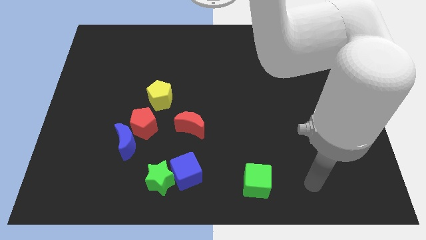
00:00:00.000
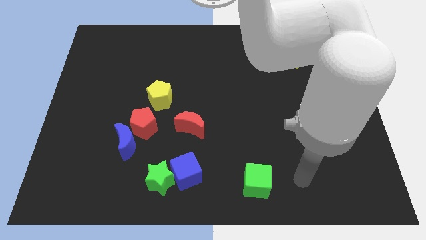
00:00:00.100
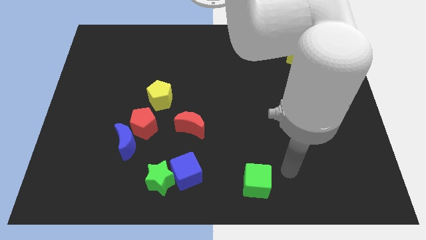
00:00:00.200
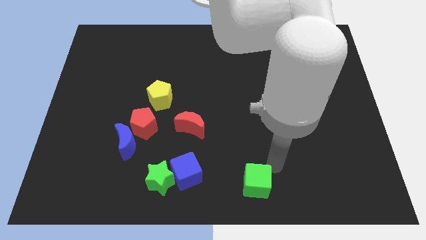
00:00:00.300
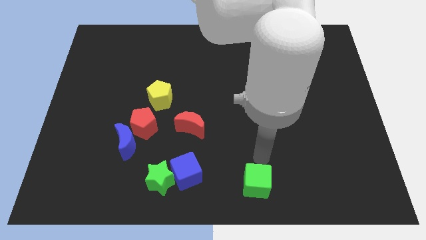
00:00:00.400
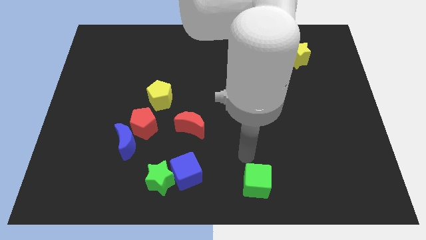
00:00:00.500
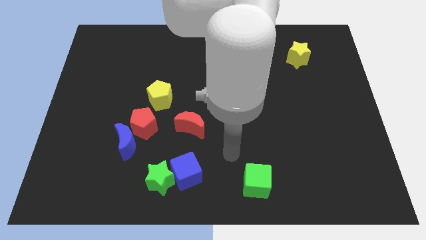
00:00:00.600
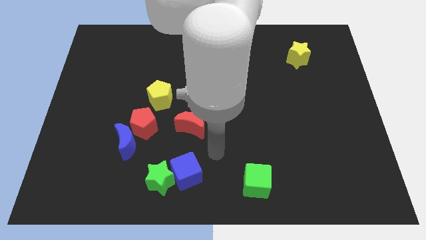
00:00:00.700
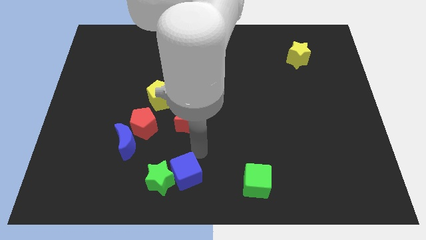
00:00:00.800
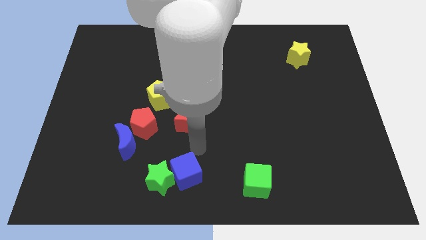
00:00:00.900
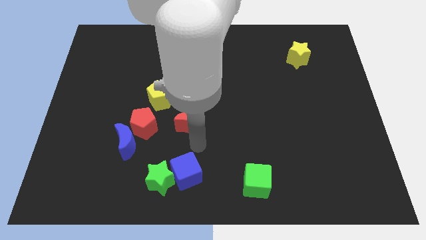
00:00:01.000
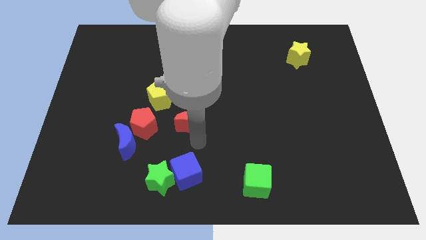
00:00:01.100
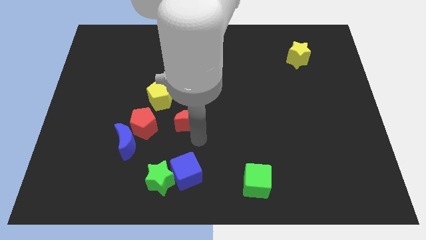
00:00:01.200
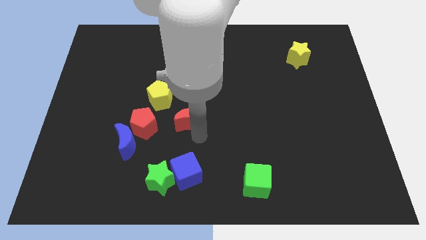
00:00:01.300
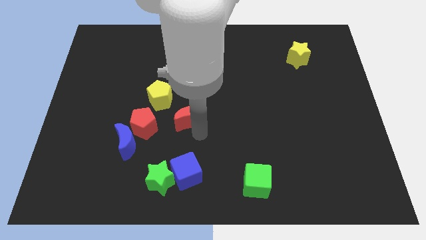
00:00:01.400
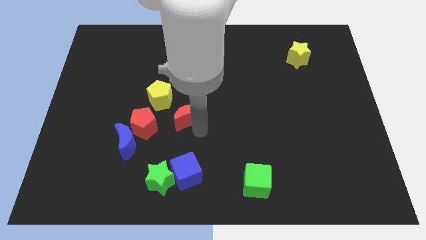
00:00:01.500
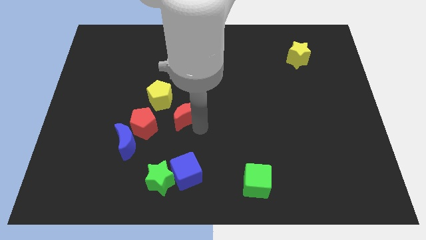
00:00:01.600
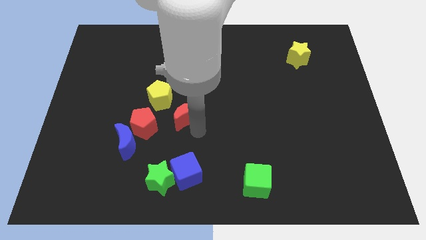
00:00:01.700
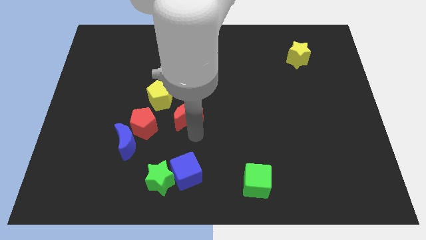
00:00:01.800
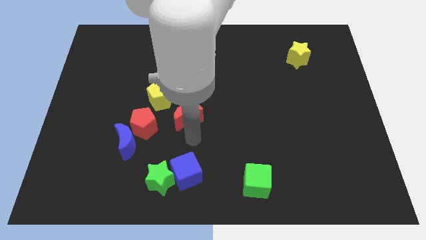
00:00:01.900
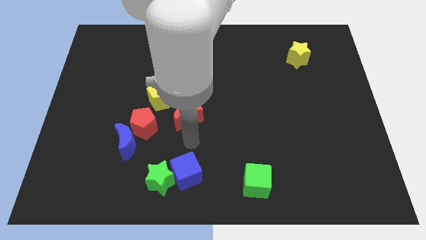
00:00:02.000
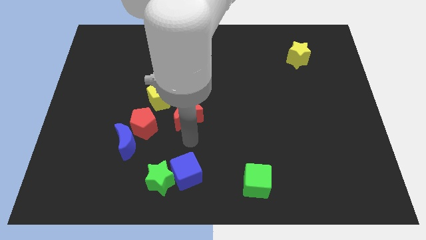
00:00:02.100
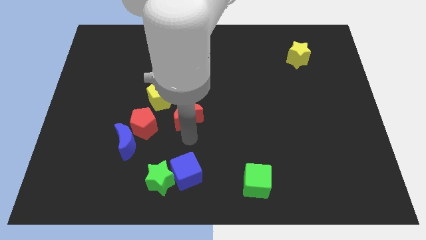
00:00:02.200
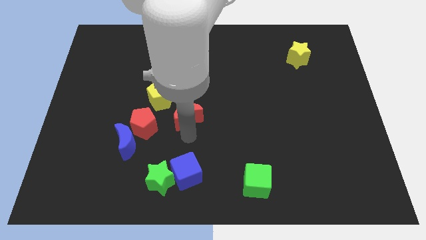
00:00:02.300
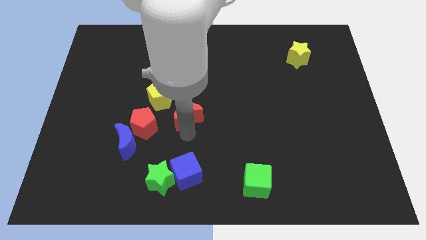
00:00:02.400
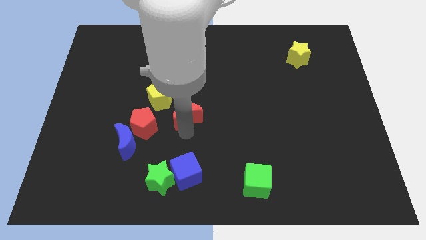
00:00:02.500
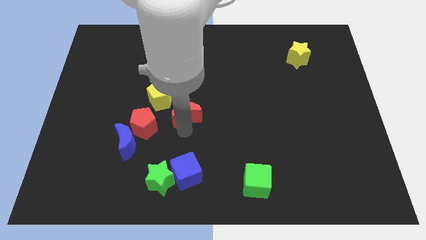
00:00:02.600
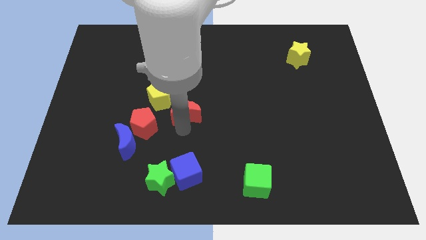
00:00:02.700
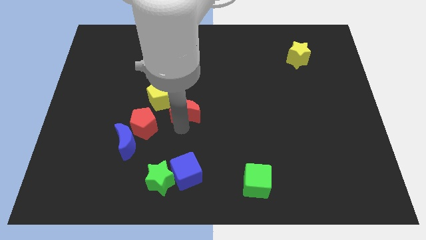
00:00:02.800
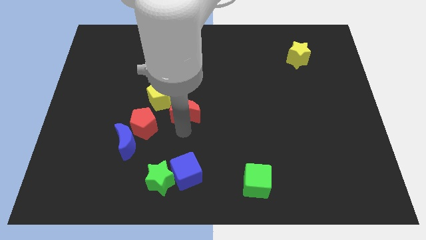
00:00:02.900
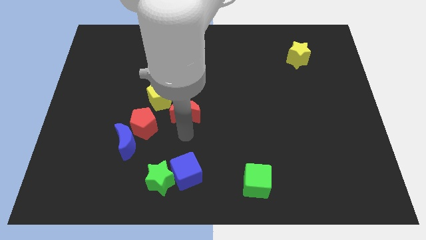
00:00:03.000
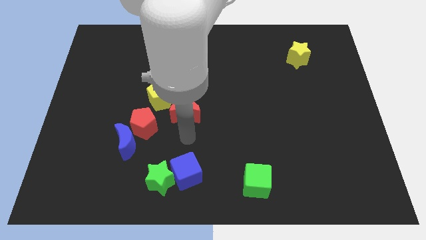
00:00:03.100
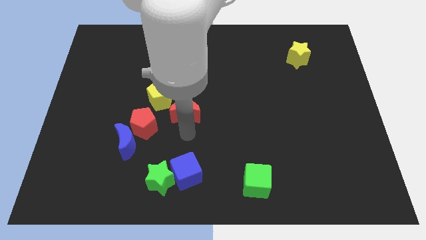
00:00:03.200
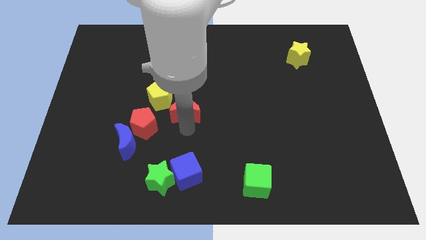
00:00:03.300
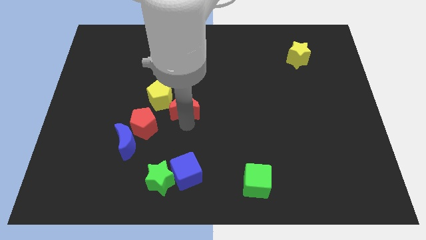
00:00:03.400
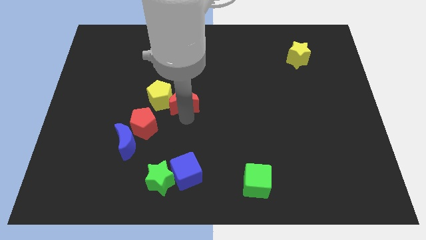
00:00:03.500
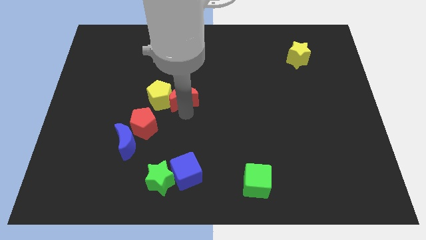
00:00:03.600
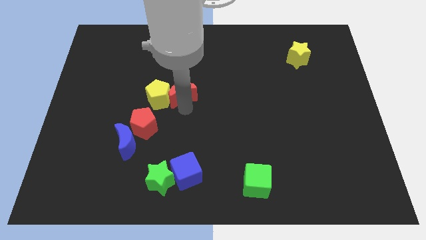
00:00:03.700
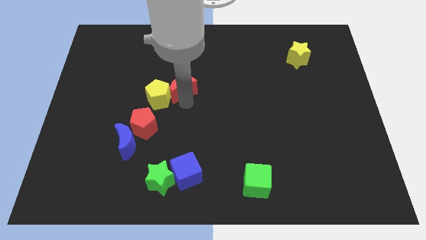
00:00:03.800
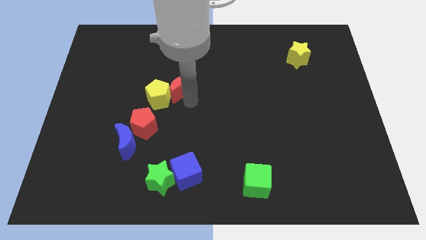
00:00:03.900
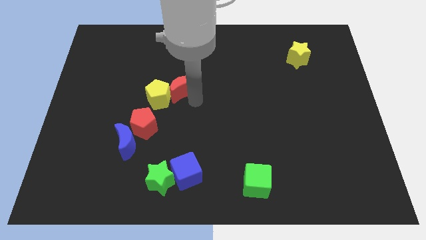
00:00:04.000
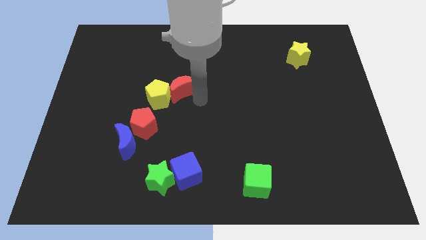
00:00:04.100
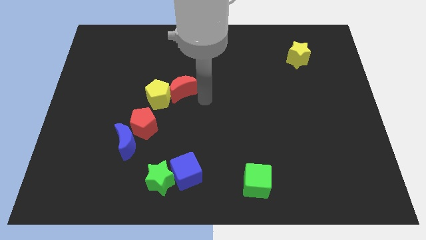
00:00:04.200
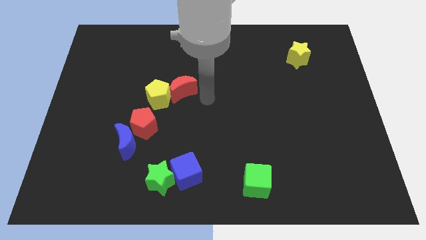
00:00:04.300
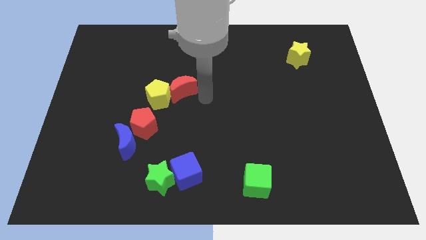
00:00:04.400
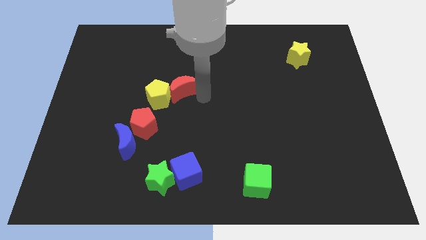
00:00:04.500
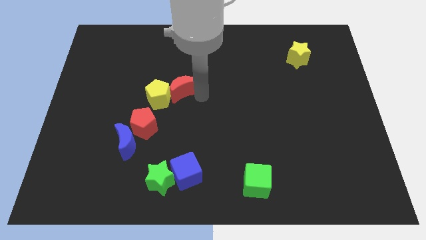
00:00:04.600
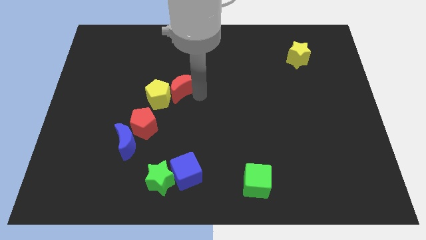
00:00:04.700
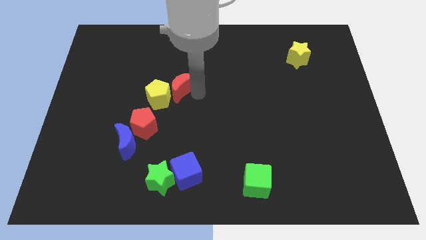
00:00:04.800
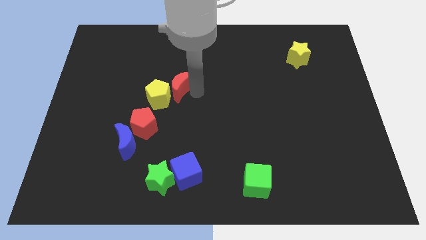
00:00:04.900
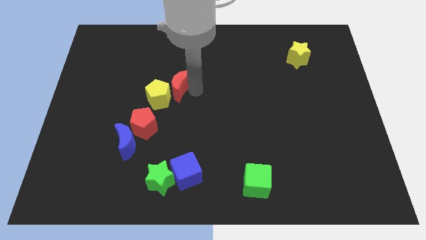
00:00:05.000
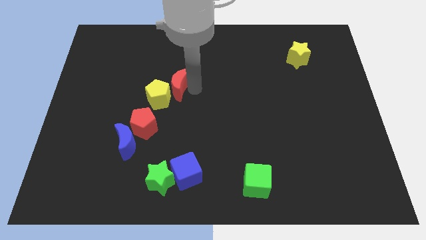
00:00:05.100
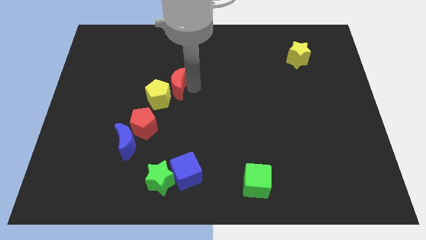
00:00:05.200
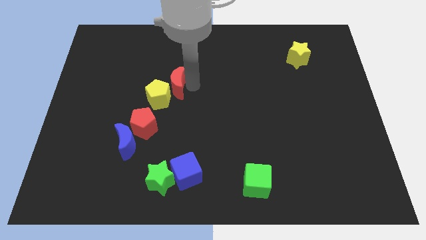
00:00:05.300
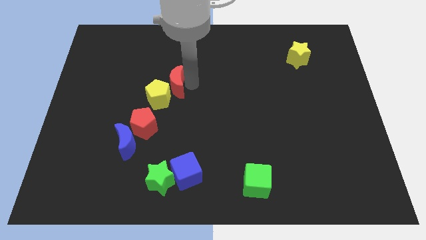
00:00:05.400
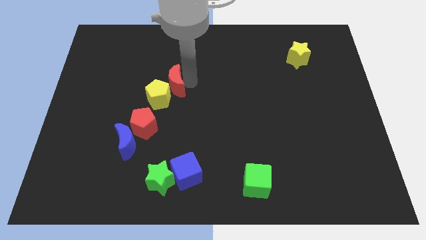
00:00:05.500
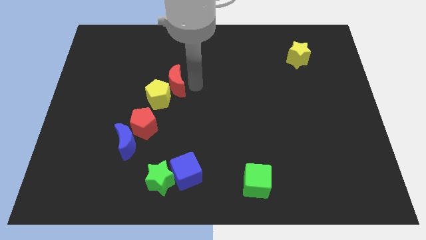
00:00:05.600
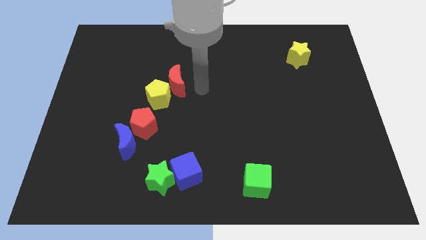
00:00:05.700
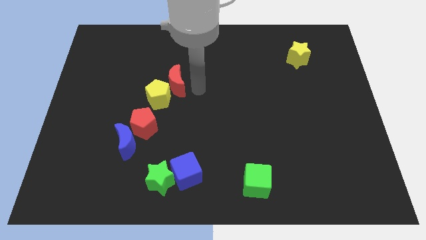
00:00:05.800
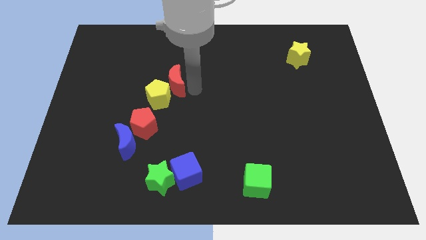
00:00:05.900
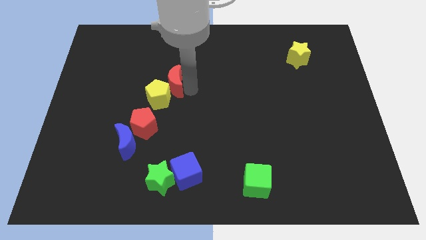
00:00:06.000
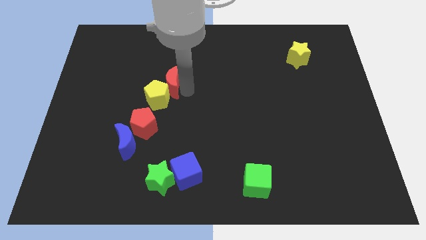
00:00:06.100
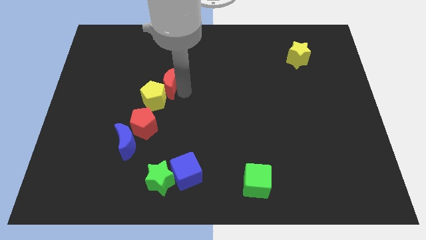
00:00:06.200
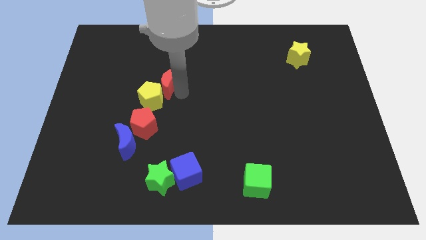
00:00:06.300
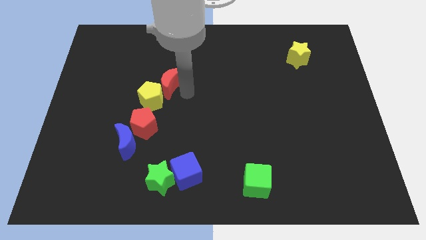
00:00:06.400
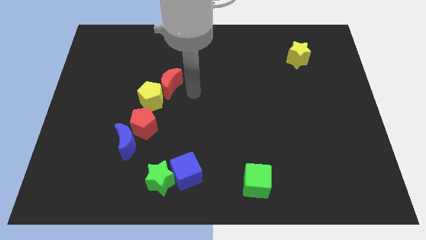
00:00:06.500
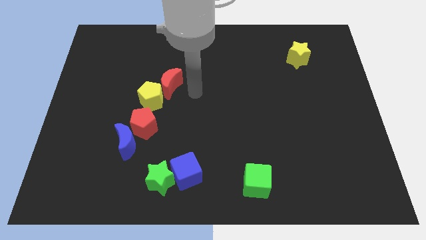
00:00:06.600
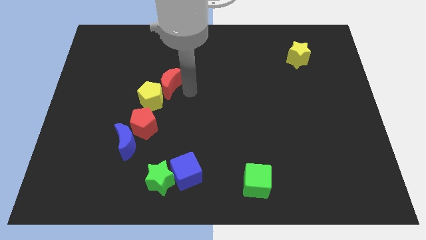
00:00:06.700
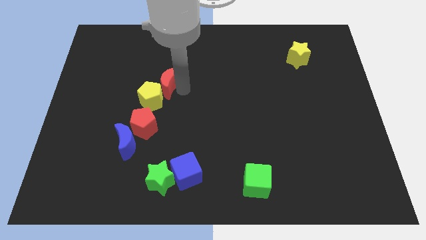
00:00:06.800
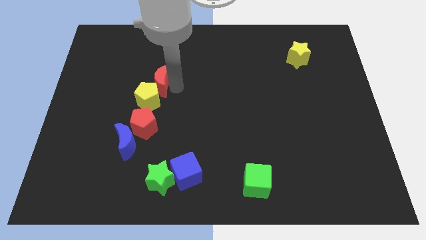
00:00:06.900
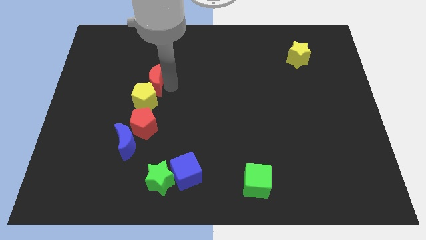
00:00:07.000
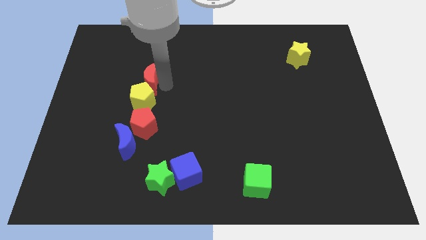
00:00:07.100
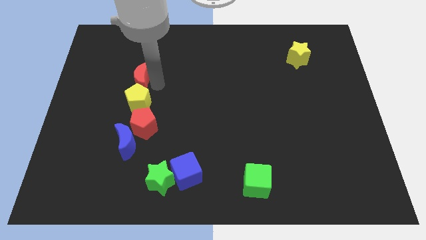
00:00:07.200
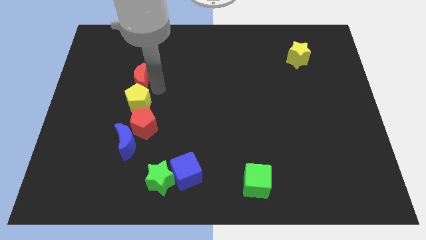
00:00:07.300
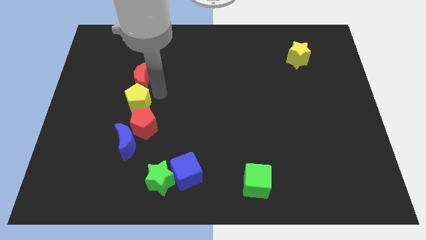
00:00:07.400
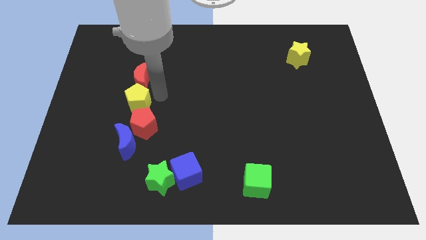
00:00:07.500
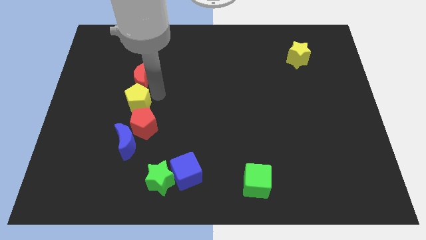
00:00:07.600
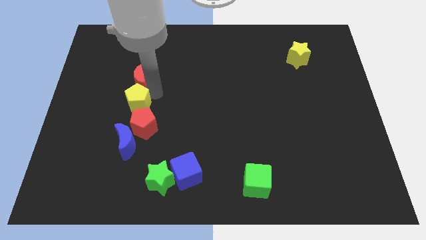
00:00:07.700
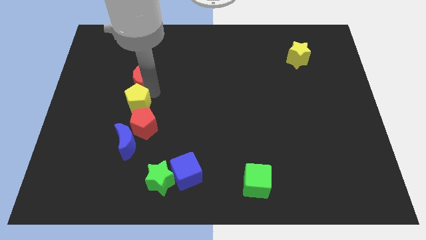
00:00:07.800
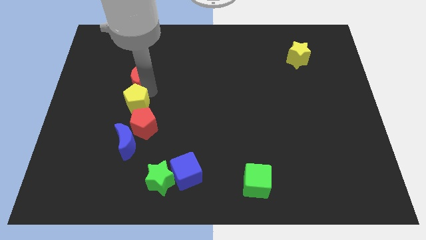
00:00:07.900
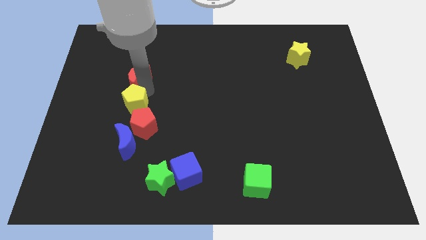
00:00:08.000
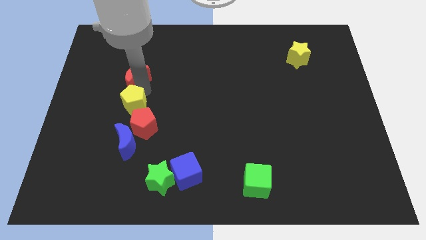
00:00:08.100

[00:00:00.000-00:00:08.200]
slide the red moon diagonally upwards and to the left
